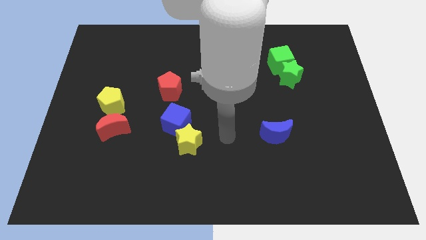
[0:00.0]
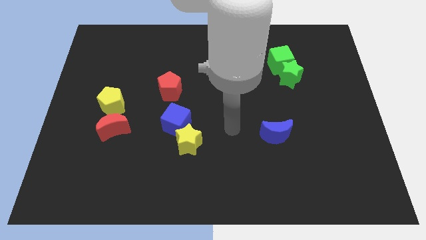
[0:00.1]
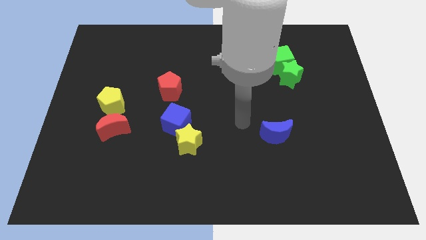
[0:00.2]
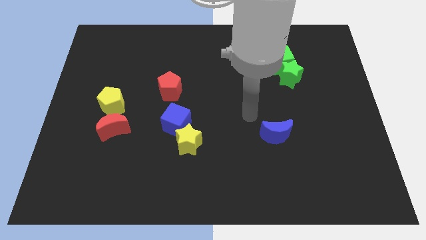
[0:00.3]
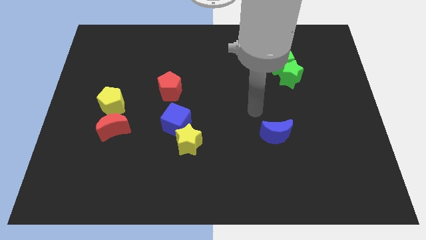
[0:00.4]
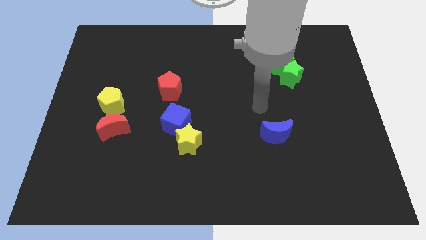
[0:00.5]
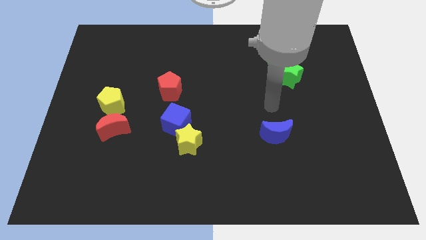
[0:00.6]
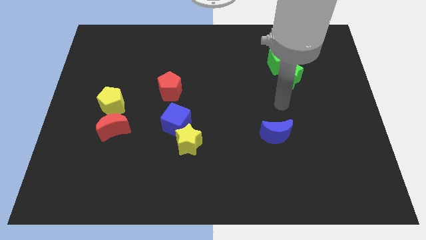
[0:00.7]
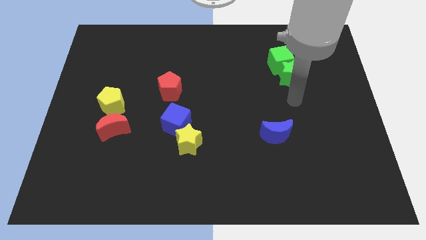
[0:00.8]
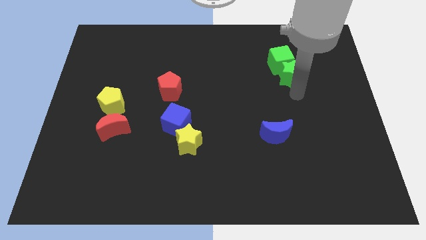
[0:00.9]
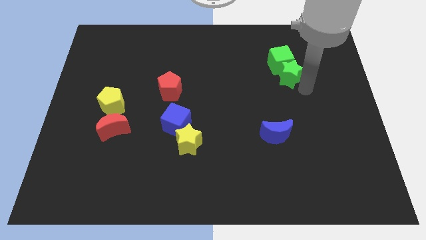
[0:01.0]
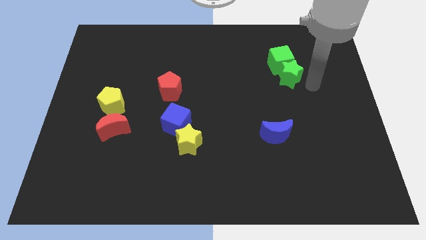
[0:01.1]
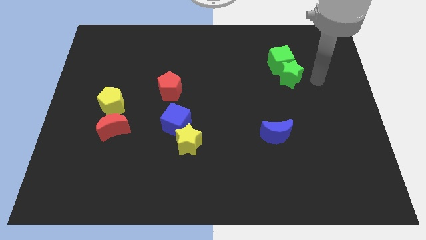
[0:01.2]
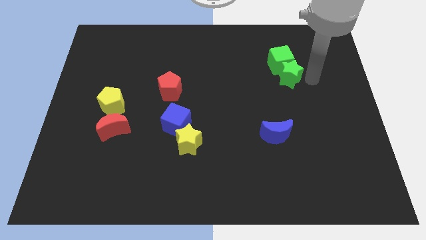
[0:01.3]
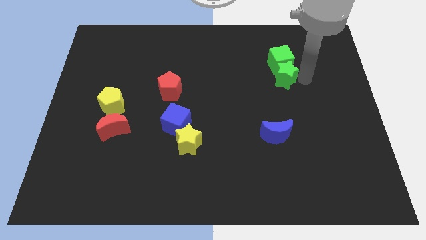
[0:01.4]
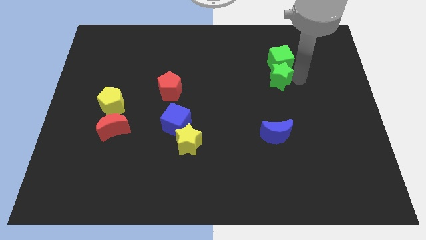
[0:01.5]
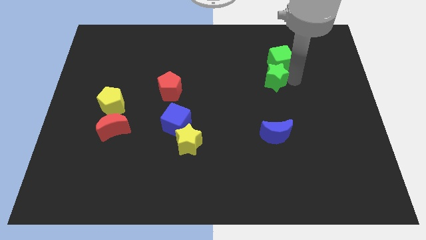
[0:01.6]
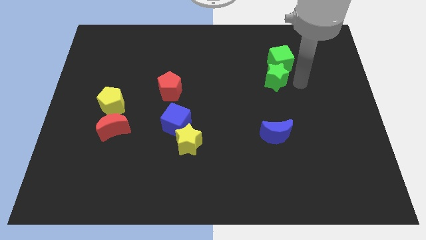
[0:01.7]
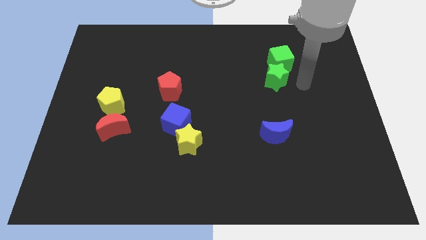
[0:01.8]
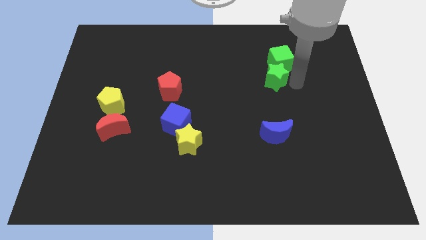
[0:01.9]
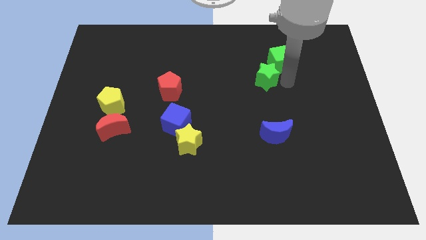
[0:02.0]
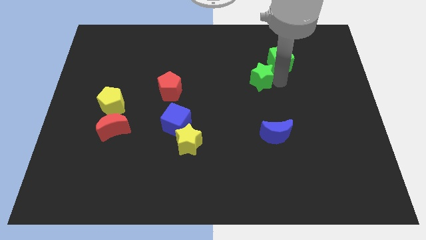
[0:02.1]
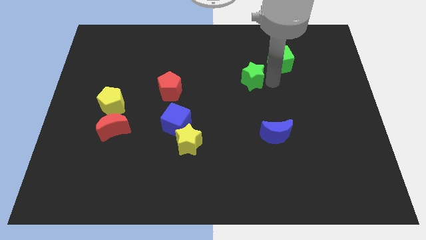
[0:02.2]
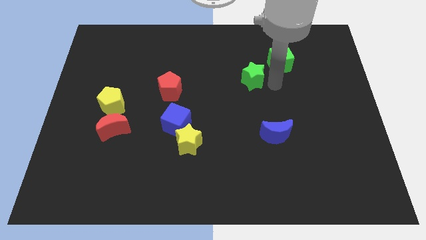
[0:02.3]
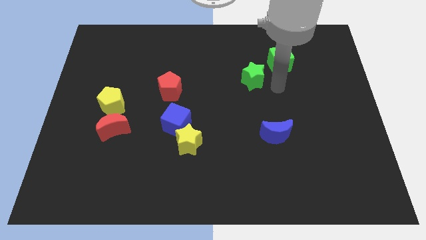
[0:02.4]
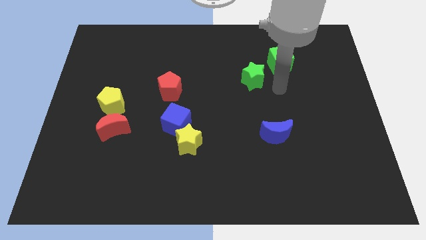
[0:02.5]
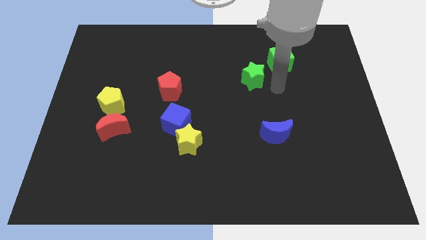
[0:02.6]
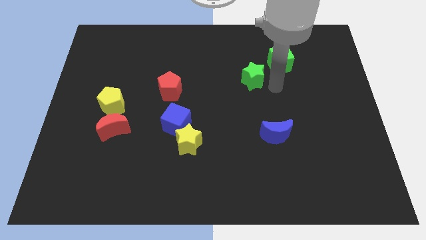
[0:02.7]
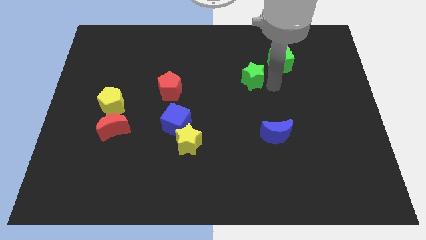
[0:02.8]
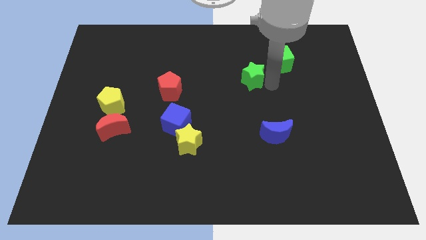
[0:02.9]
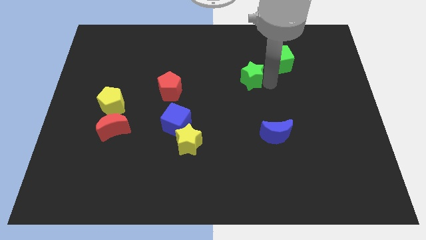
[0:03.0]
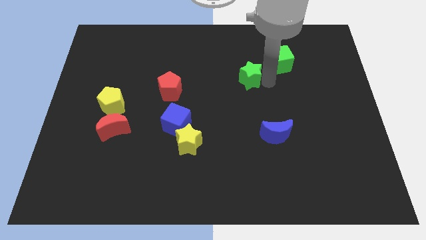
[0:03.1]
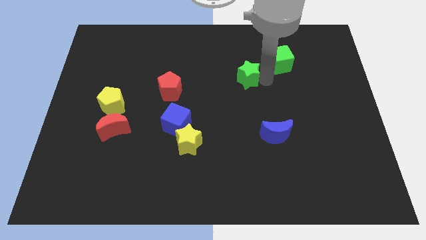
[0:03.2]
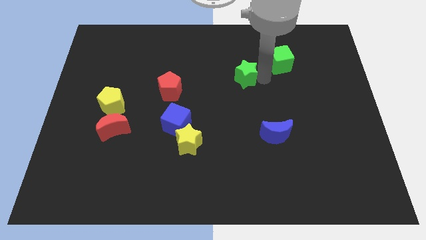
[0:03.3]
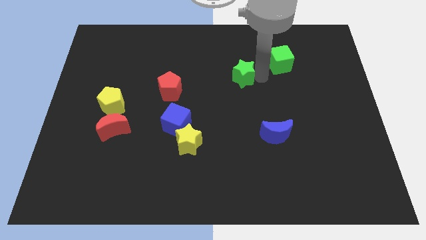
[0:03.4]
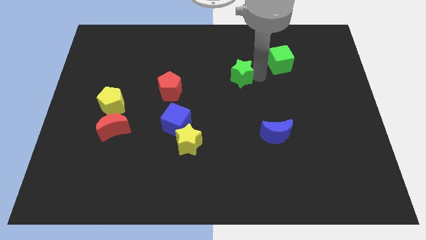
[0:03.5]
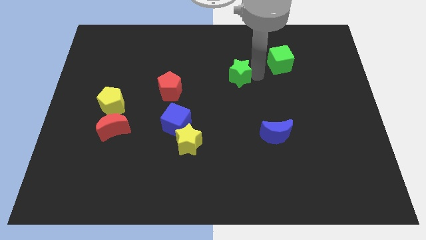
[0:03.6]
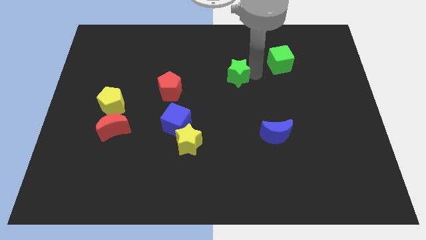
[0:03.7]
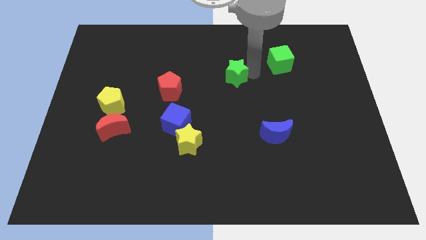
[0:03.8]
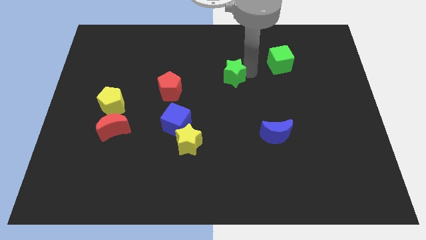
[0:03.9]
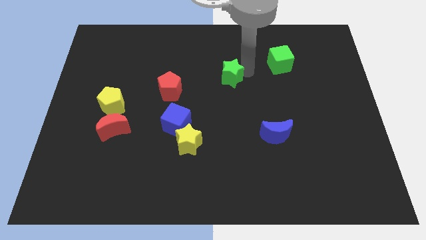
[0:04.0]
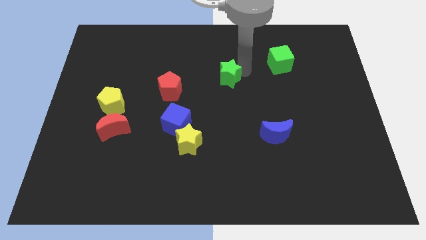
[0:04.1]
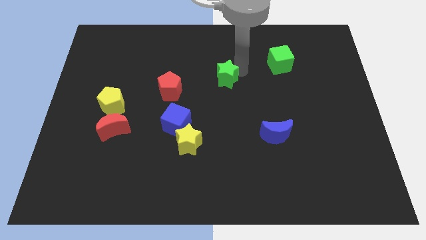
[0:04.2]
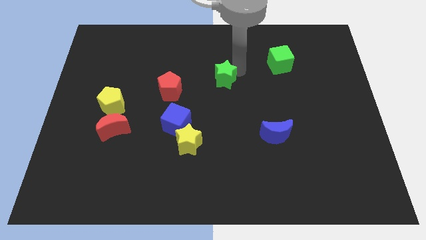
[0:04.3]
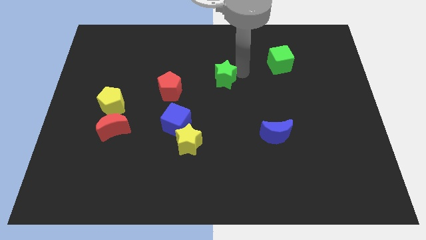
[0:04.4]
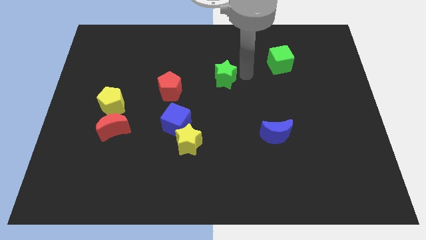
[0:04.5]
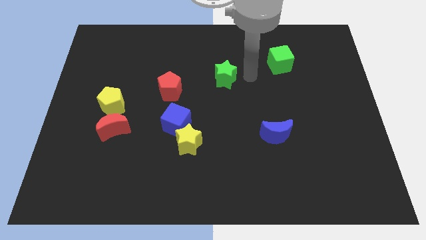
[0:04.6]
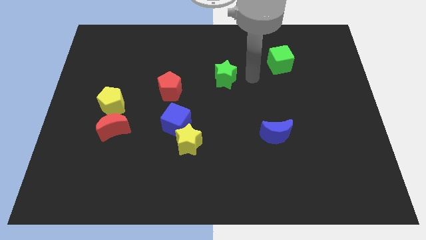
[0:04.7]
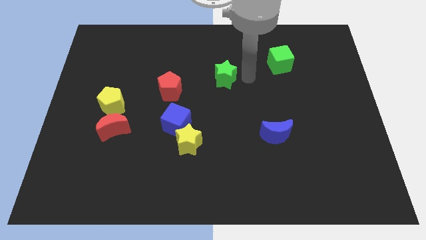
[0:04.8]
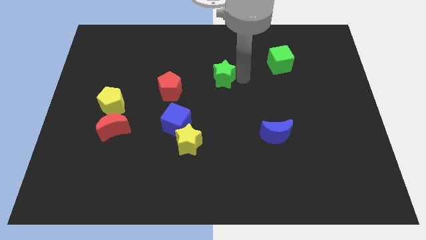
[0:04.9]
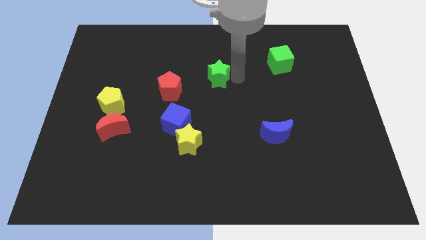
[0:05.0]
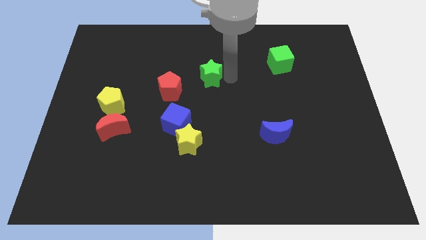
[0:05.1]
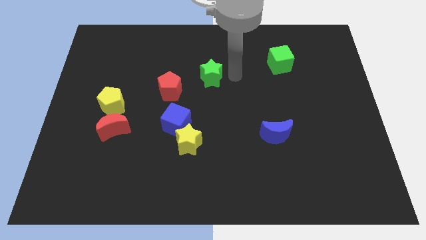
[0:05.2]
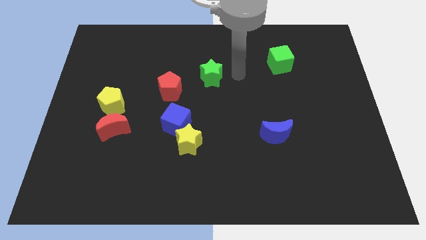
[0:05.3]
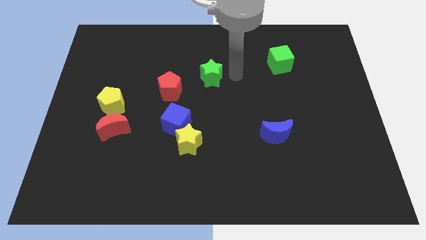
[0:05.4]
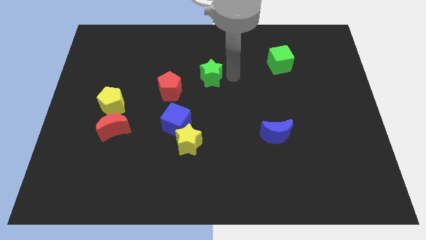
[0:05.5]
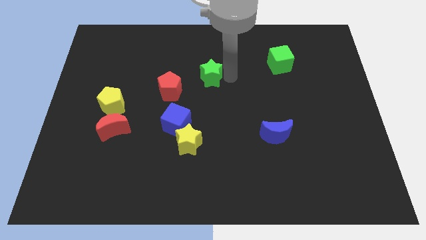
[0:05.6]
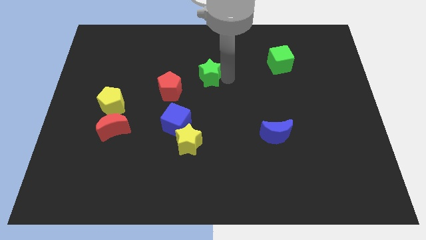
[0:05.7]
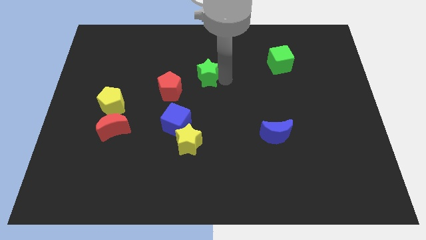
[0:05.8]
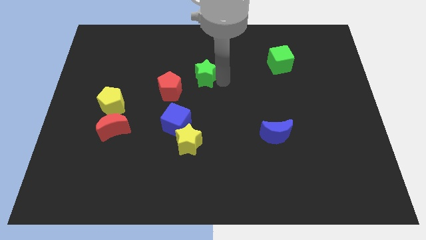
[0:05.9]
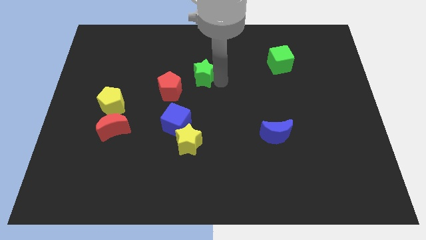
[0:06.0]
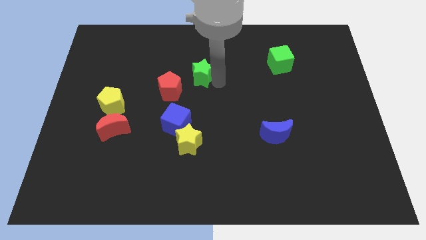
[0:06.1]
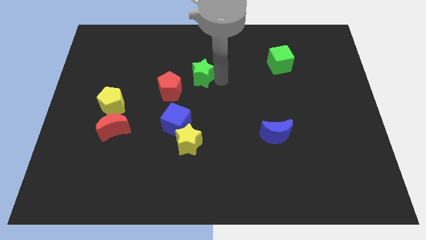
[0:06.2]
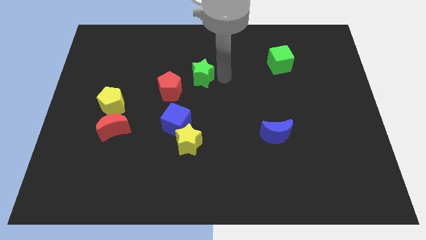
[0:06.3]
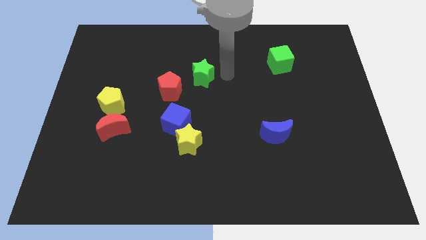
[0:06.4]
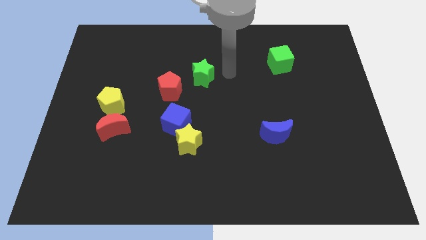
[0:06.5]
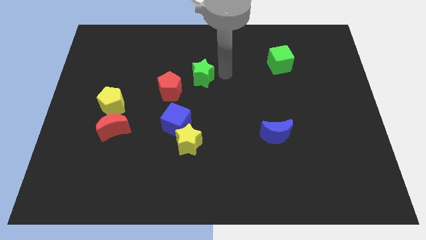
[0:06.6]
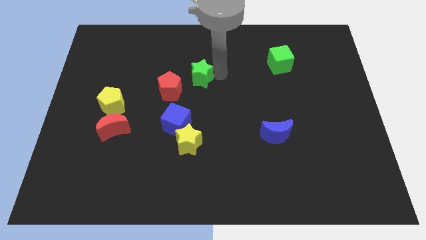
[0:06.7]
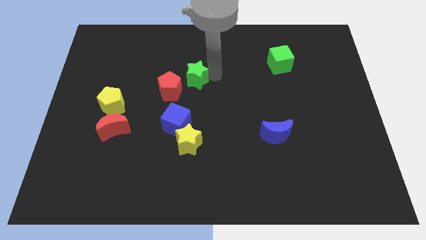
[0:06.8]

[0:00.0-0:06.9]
slide the green star to the top side of the blue cube
